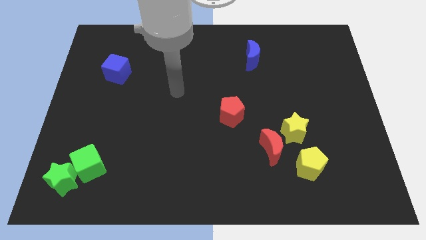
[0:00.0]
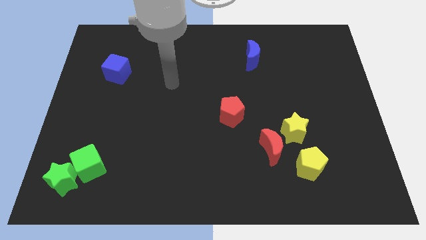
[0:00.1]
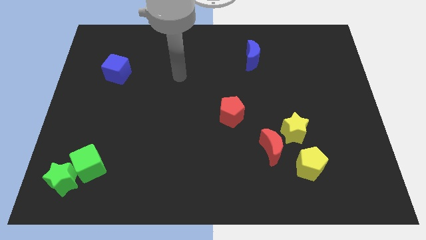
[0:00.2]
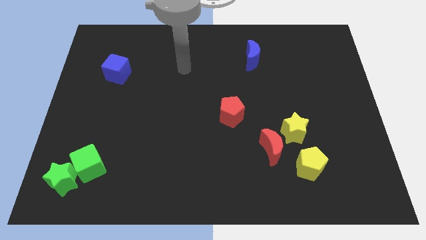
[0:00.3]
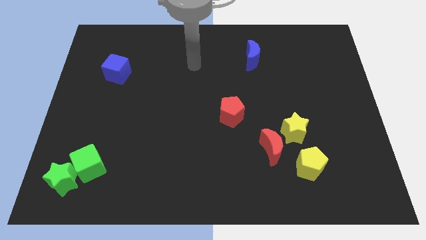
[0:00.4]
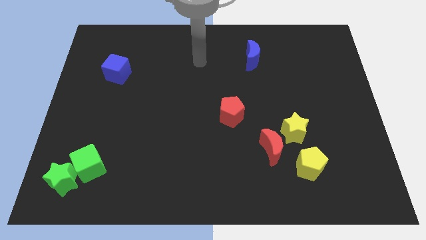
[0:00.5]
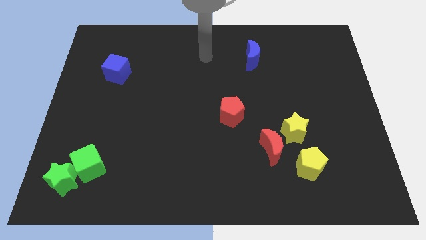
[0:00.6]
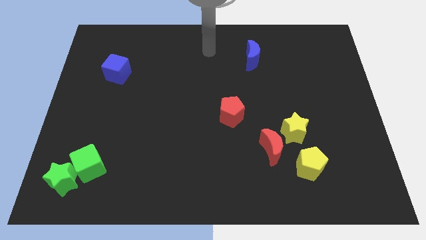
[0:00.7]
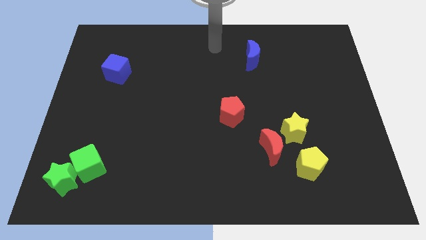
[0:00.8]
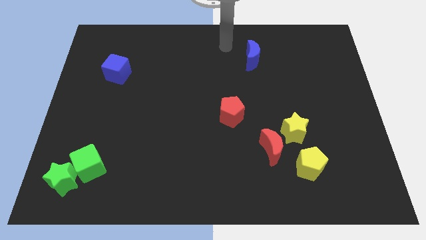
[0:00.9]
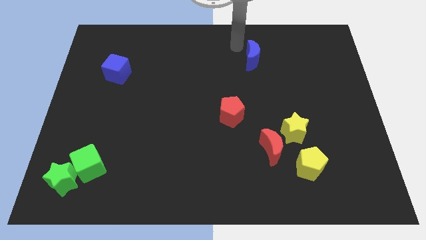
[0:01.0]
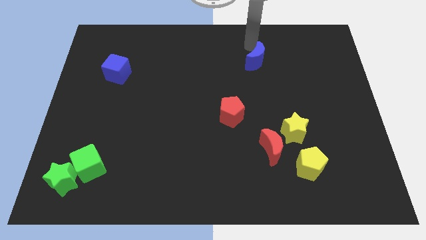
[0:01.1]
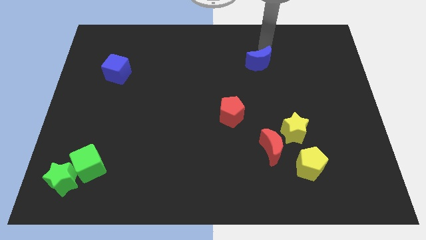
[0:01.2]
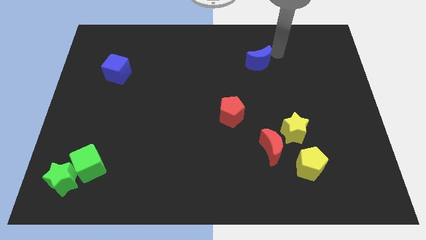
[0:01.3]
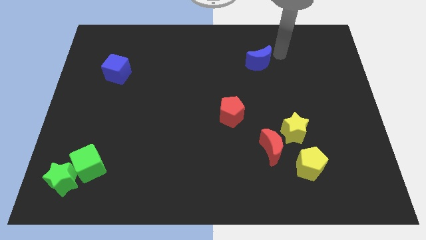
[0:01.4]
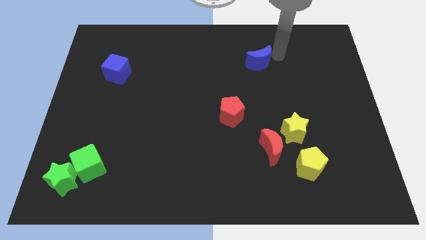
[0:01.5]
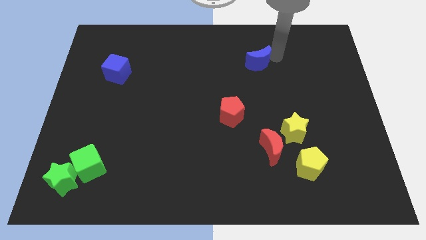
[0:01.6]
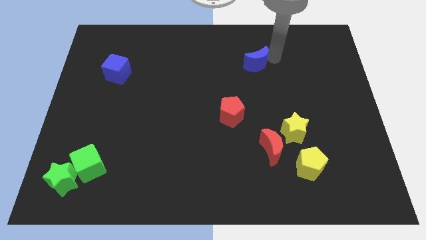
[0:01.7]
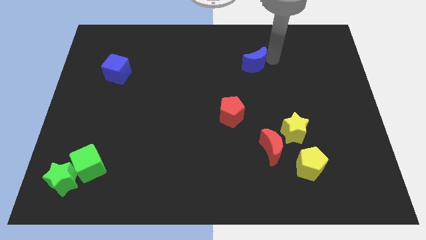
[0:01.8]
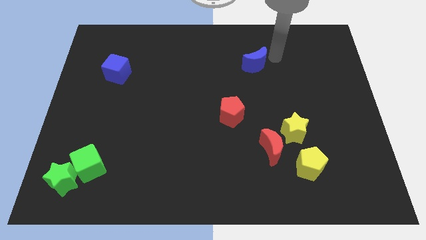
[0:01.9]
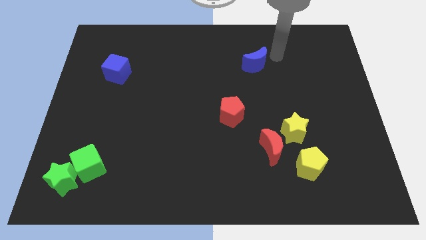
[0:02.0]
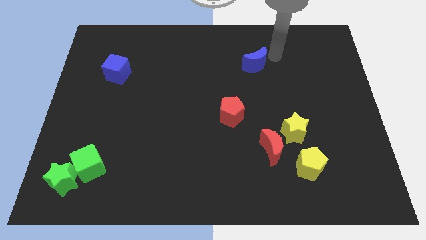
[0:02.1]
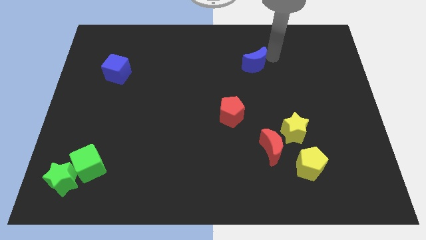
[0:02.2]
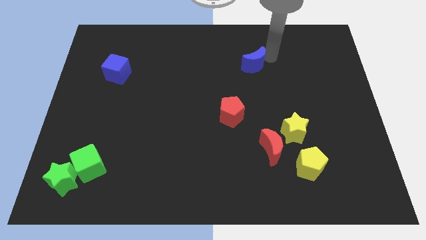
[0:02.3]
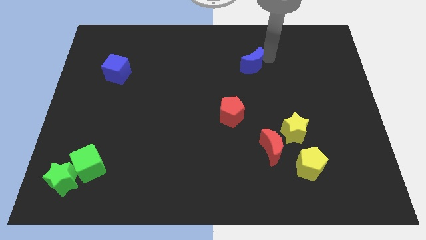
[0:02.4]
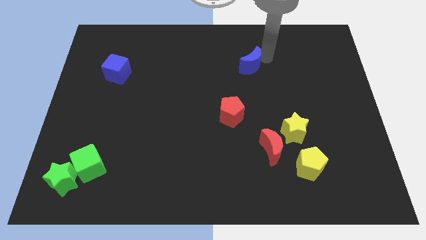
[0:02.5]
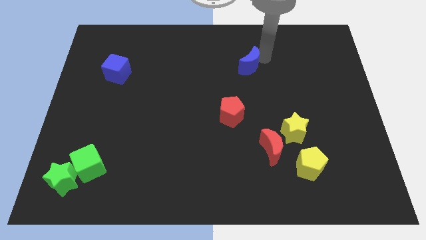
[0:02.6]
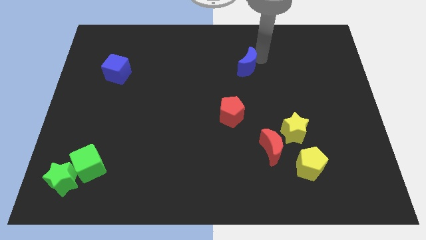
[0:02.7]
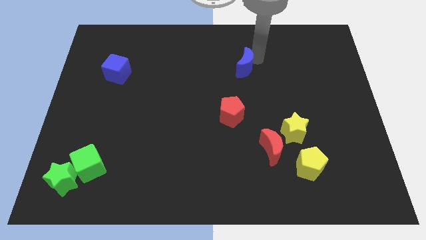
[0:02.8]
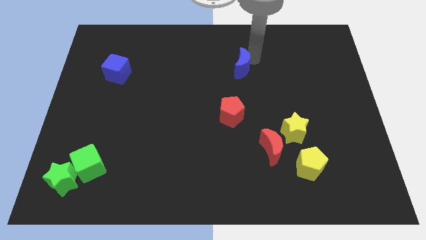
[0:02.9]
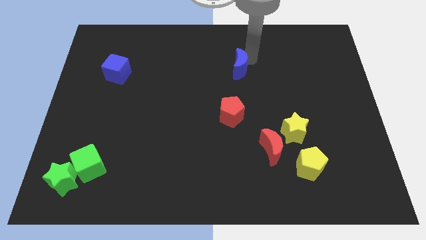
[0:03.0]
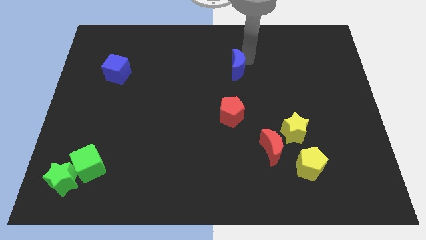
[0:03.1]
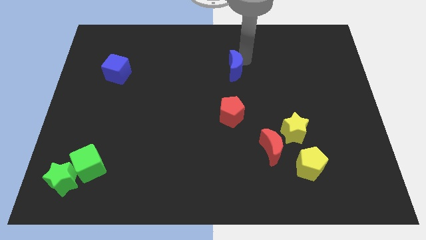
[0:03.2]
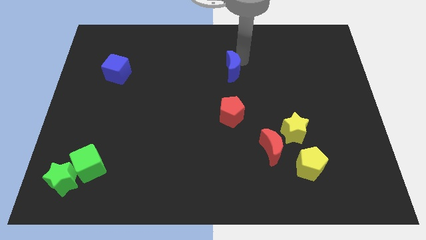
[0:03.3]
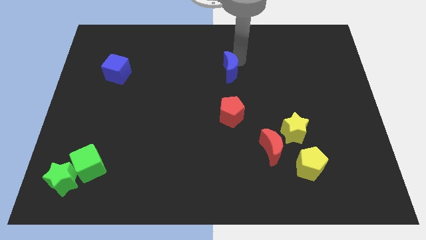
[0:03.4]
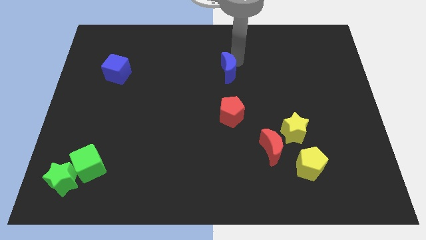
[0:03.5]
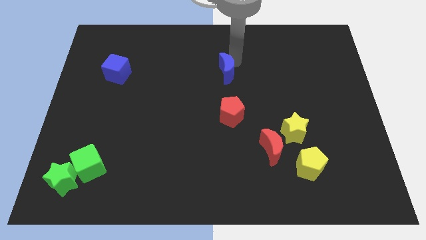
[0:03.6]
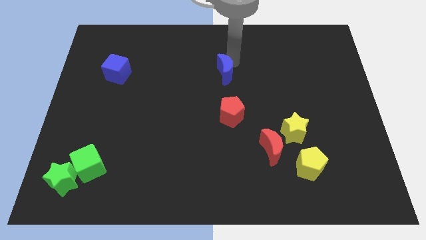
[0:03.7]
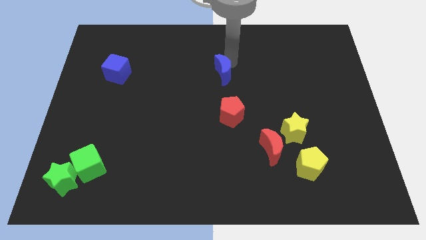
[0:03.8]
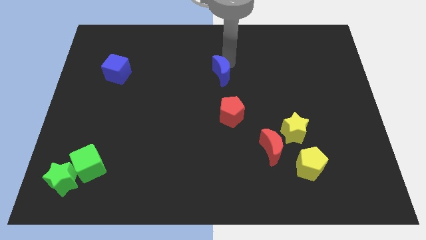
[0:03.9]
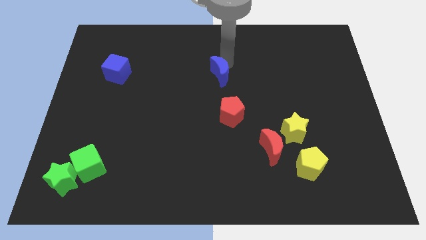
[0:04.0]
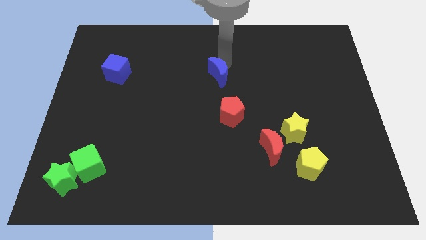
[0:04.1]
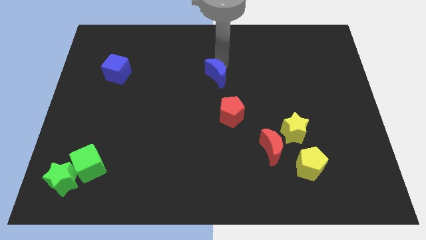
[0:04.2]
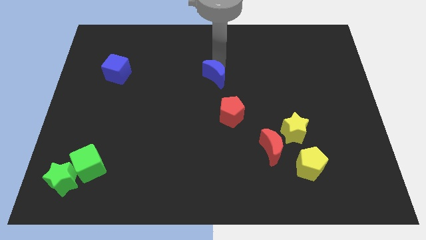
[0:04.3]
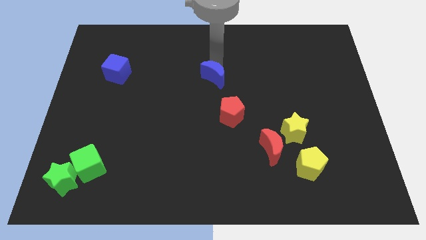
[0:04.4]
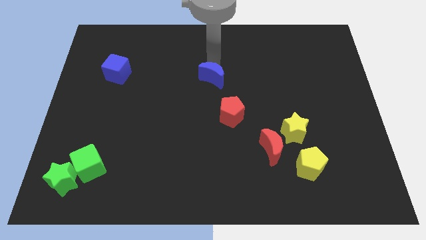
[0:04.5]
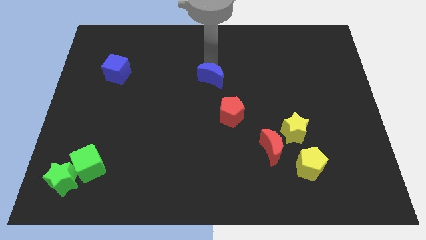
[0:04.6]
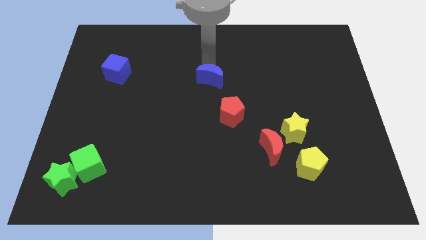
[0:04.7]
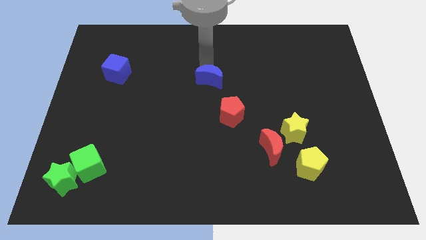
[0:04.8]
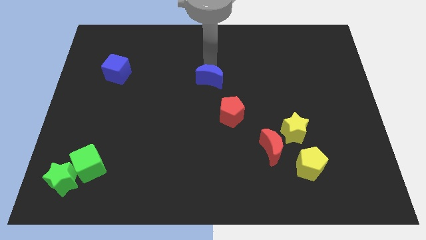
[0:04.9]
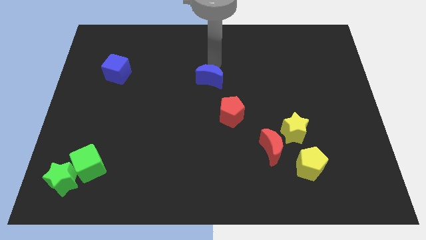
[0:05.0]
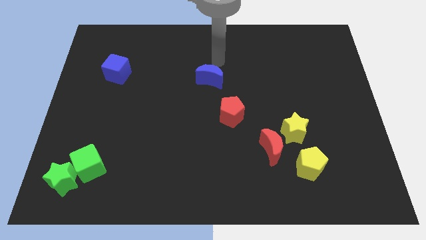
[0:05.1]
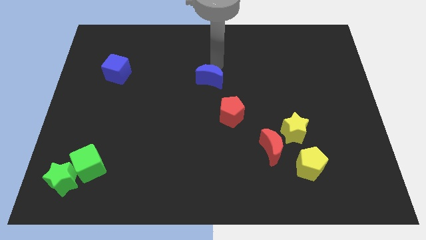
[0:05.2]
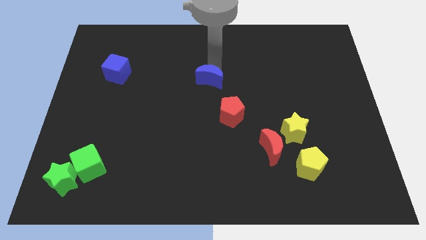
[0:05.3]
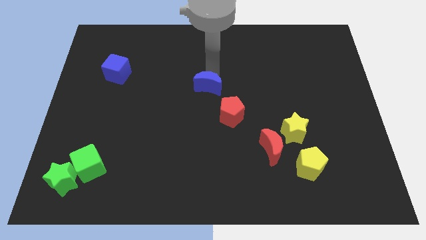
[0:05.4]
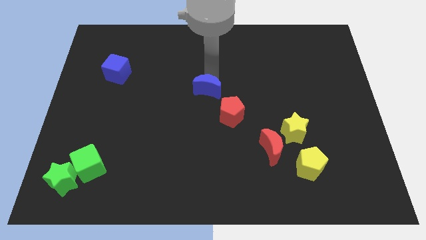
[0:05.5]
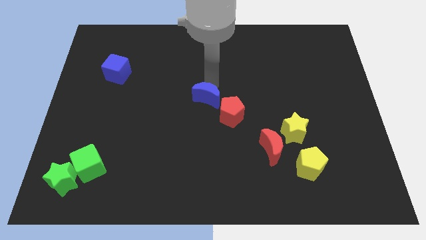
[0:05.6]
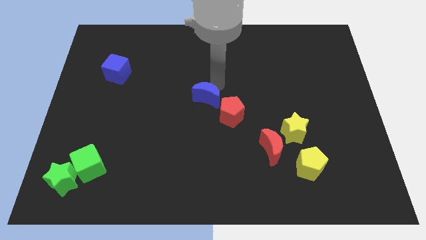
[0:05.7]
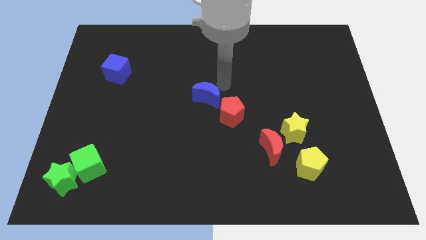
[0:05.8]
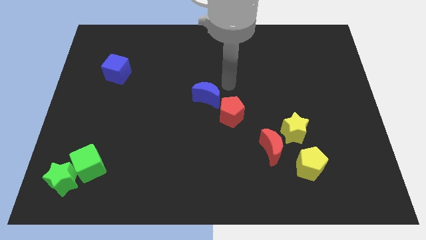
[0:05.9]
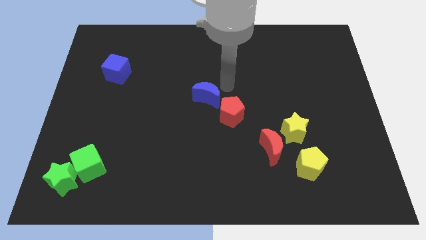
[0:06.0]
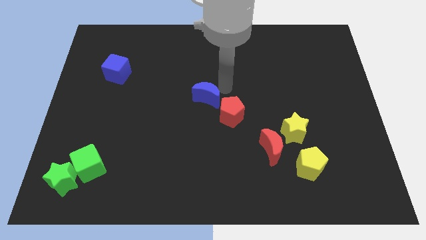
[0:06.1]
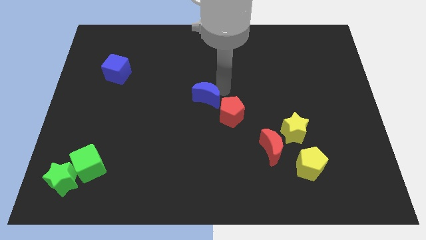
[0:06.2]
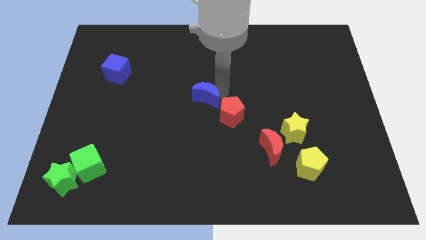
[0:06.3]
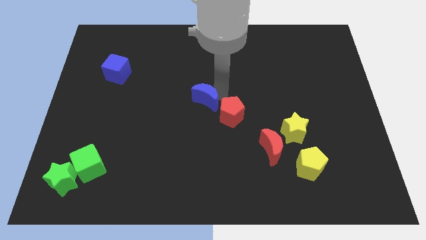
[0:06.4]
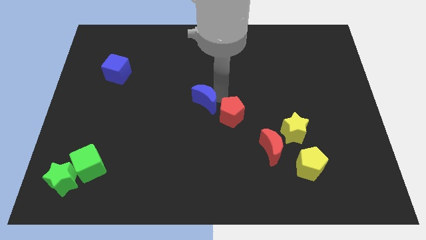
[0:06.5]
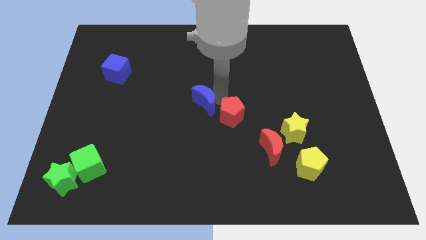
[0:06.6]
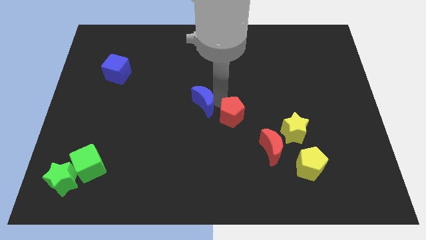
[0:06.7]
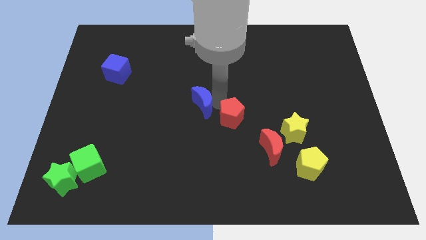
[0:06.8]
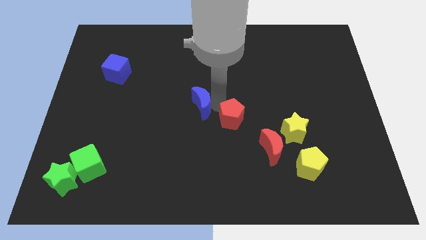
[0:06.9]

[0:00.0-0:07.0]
slide the blue moon downwards and to the left diagonally

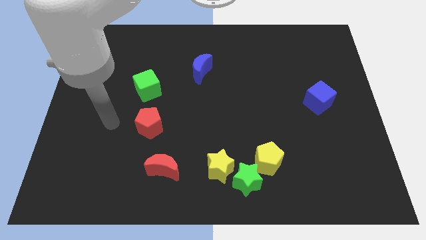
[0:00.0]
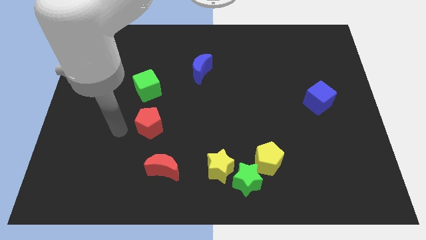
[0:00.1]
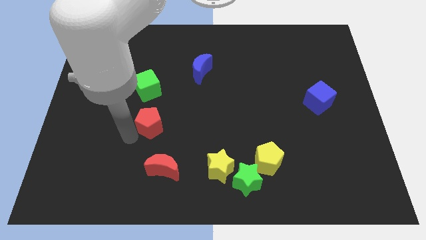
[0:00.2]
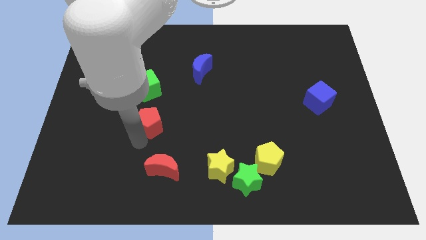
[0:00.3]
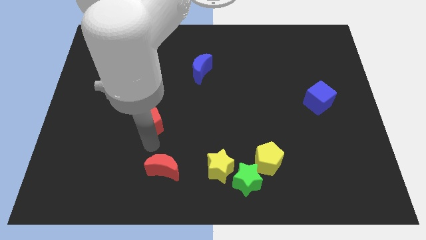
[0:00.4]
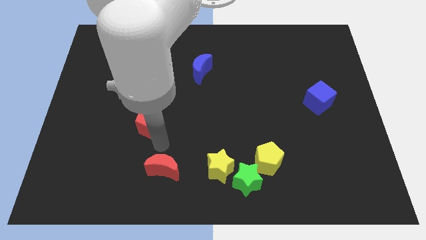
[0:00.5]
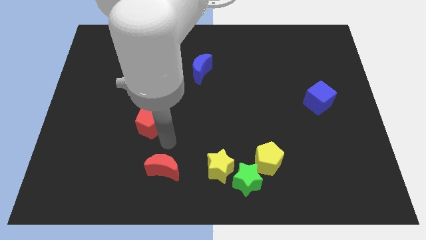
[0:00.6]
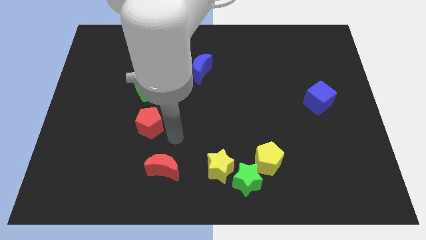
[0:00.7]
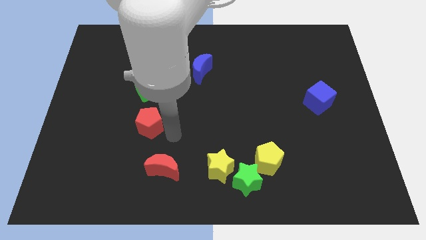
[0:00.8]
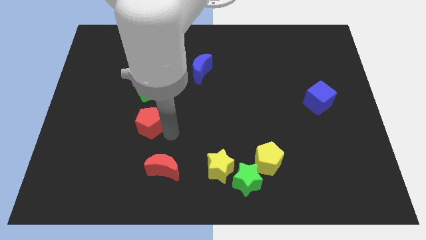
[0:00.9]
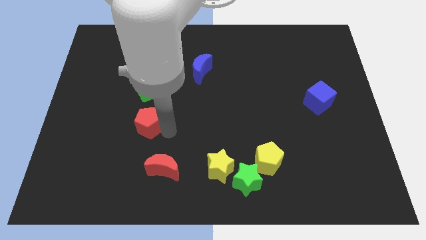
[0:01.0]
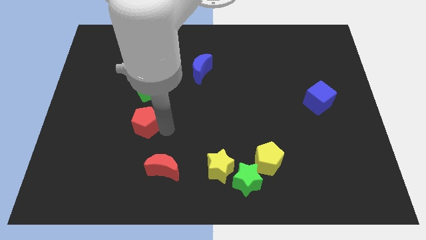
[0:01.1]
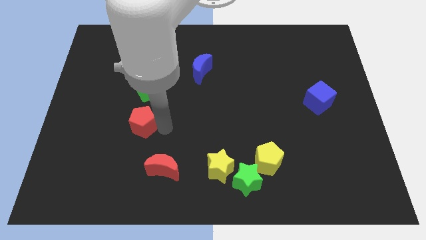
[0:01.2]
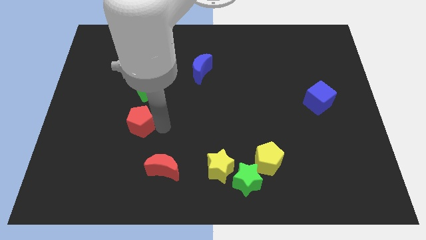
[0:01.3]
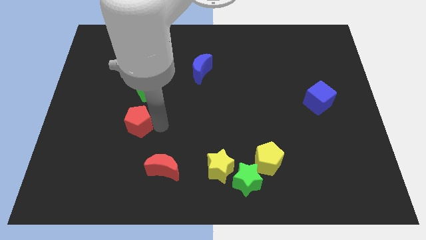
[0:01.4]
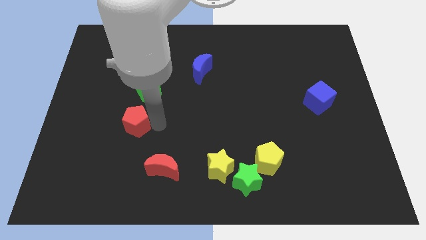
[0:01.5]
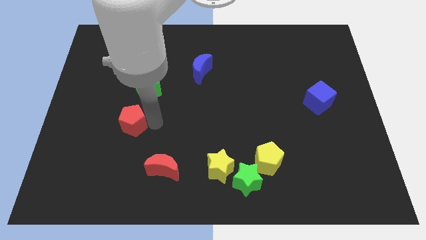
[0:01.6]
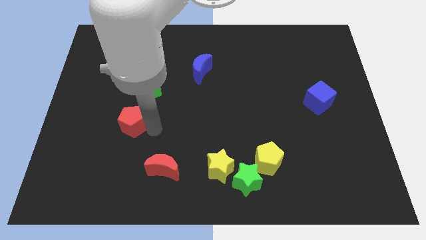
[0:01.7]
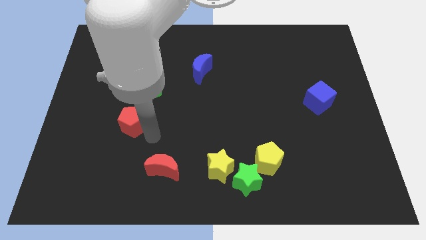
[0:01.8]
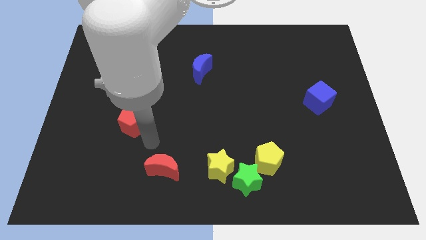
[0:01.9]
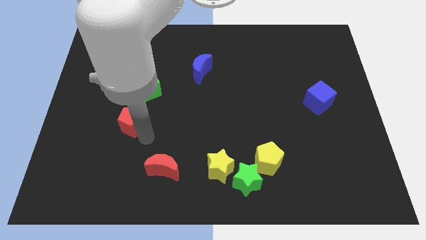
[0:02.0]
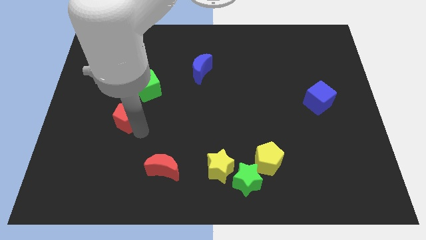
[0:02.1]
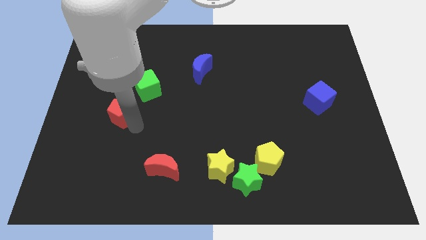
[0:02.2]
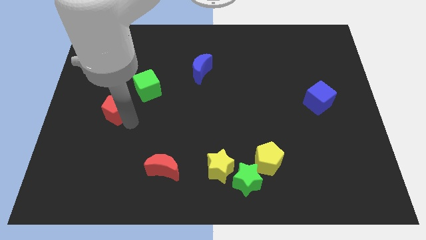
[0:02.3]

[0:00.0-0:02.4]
slide the red pentagon slightly up and left diagonally
